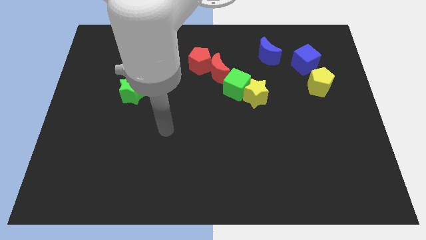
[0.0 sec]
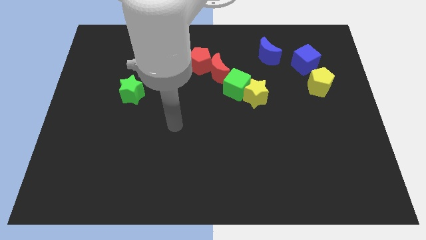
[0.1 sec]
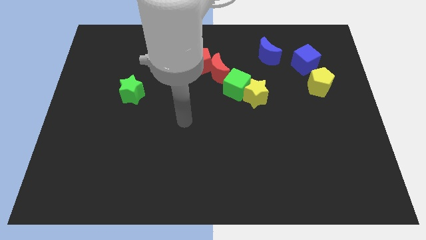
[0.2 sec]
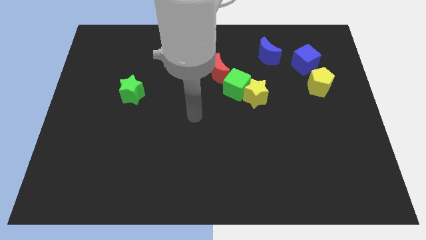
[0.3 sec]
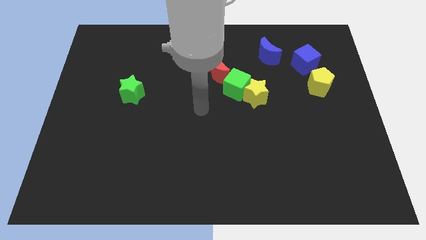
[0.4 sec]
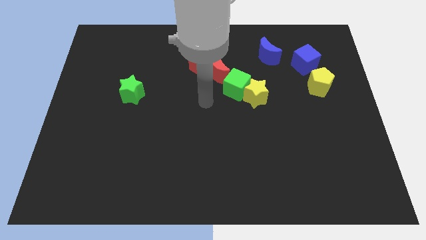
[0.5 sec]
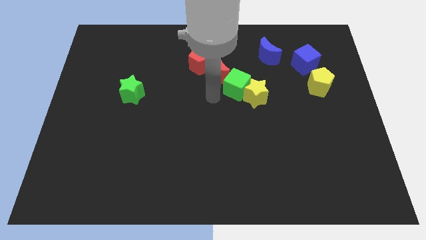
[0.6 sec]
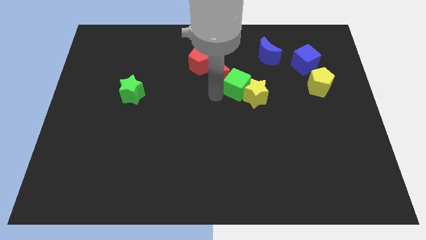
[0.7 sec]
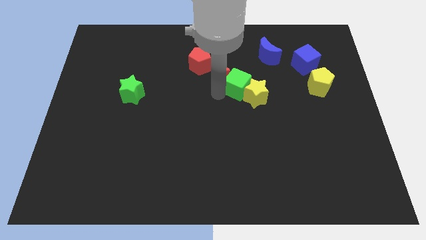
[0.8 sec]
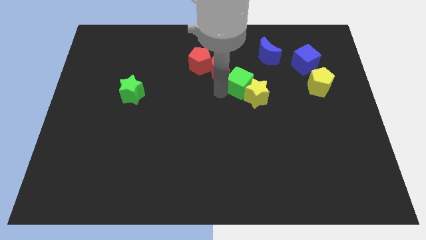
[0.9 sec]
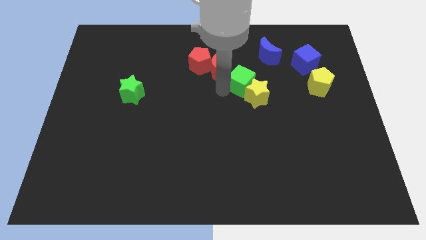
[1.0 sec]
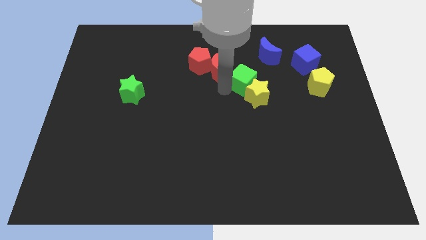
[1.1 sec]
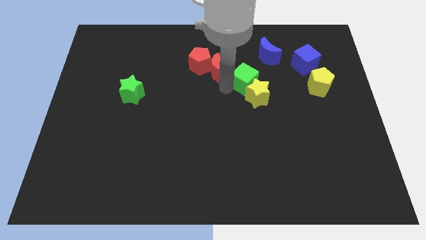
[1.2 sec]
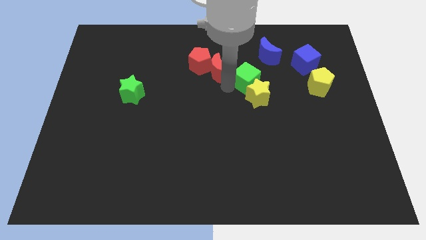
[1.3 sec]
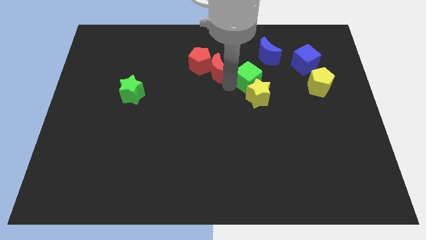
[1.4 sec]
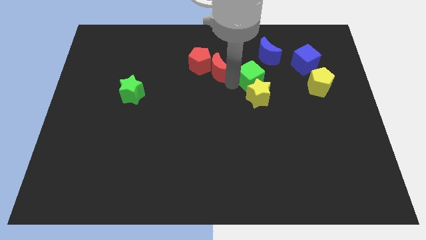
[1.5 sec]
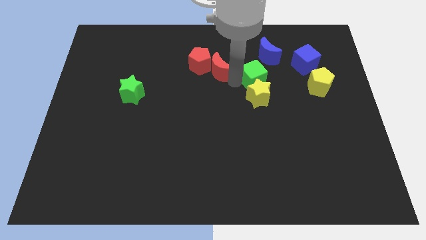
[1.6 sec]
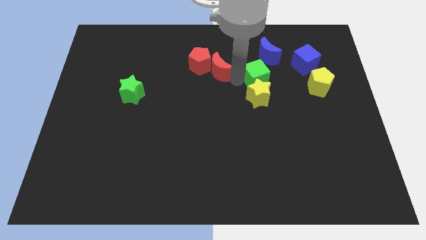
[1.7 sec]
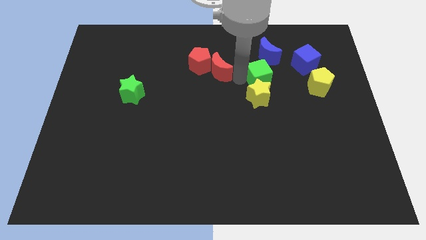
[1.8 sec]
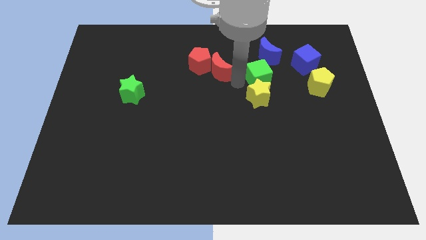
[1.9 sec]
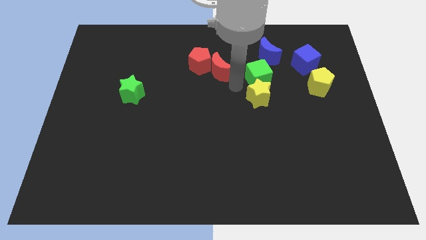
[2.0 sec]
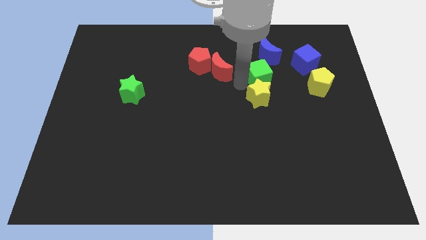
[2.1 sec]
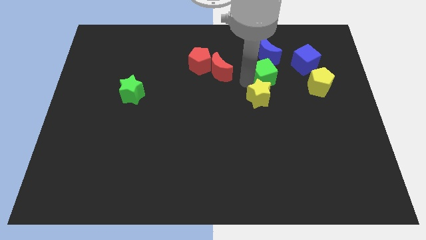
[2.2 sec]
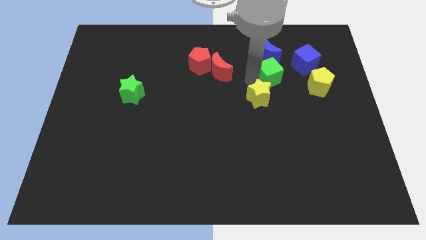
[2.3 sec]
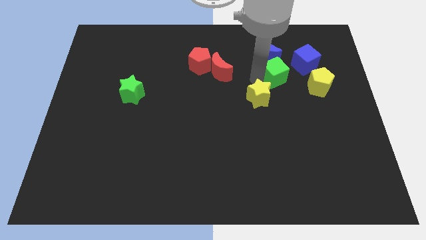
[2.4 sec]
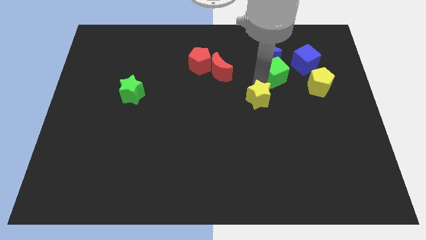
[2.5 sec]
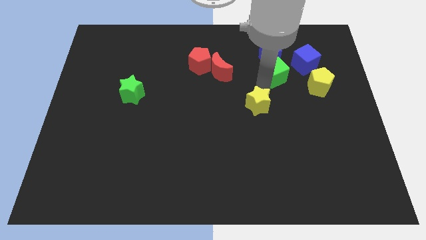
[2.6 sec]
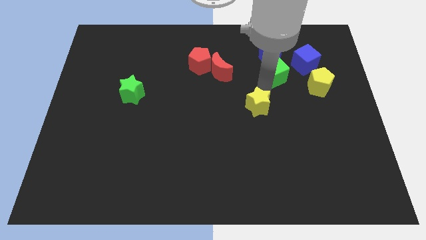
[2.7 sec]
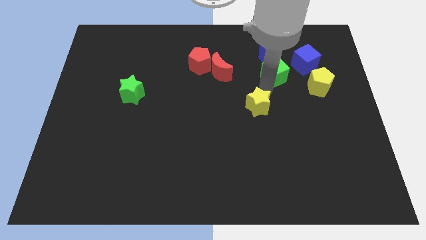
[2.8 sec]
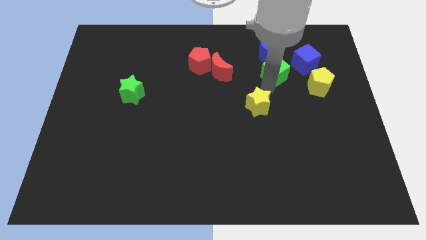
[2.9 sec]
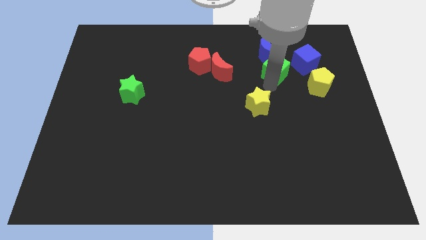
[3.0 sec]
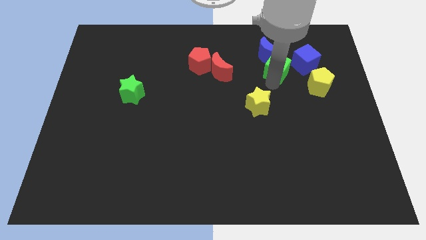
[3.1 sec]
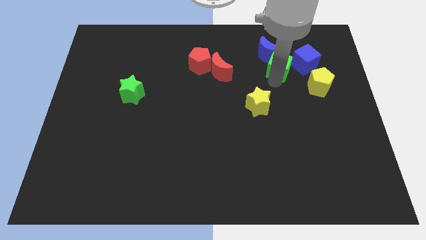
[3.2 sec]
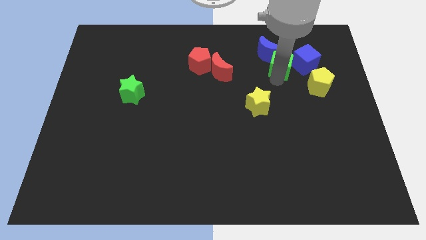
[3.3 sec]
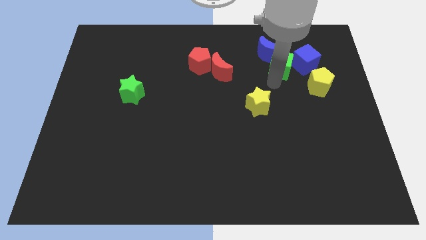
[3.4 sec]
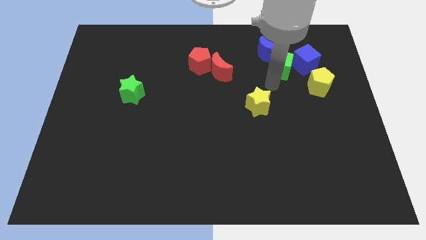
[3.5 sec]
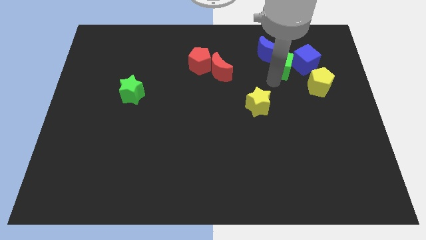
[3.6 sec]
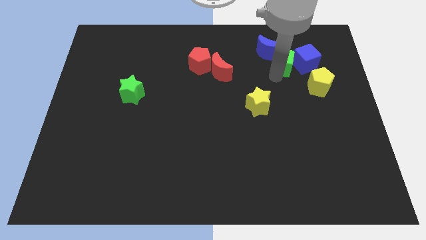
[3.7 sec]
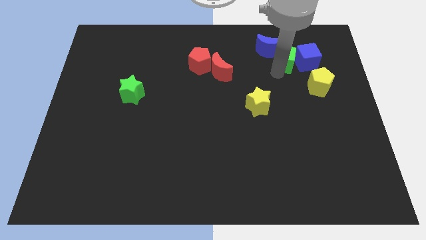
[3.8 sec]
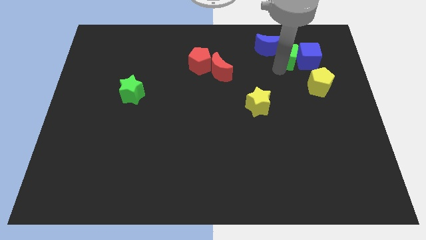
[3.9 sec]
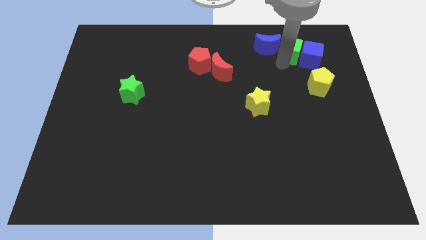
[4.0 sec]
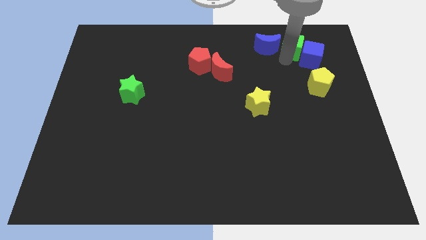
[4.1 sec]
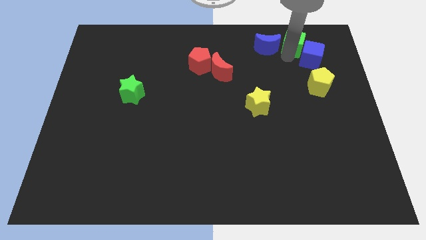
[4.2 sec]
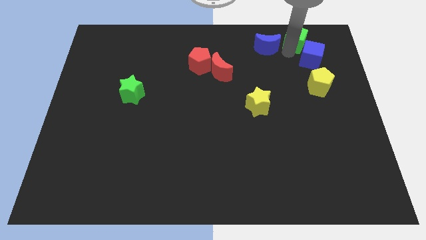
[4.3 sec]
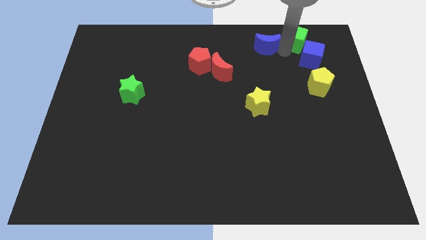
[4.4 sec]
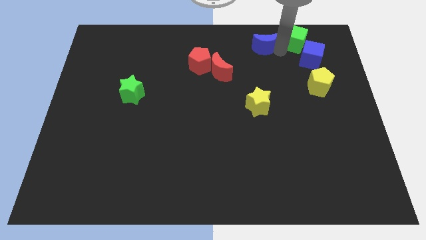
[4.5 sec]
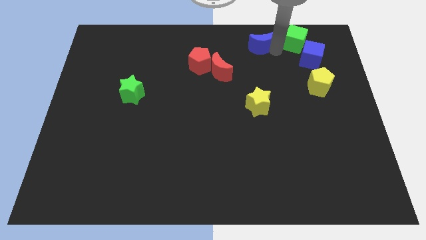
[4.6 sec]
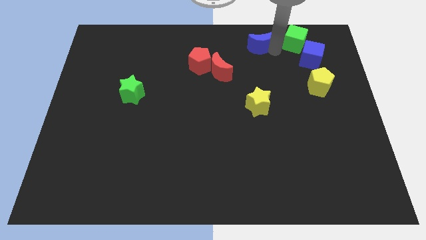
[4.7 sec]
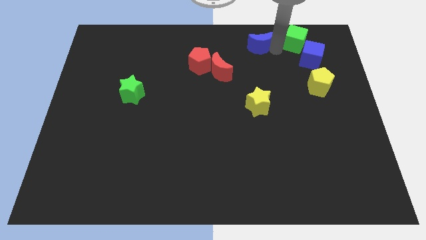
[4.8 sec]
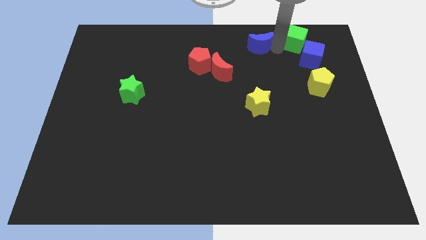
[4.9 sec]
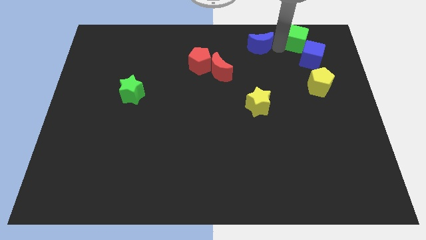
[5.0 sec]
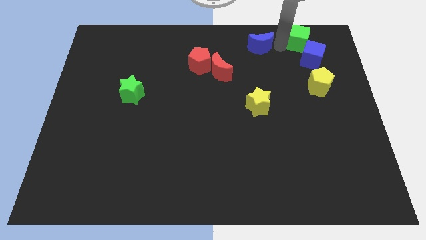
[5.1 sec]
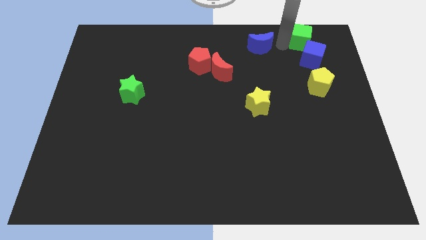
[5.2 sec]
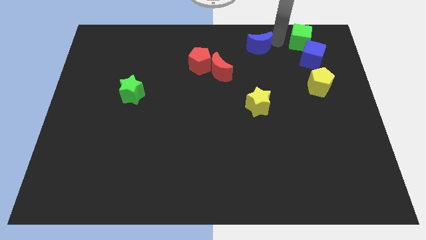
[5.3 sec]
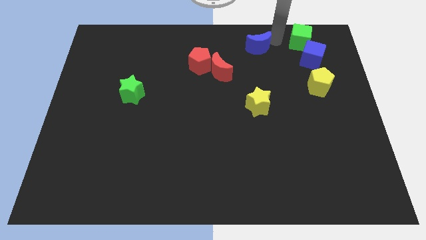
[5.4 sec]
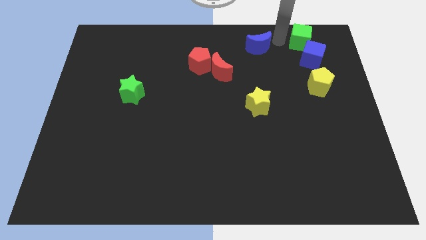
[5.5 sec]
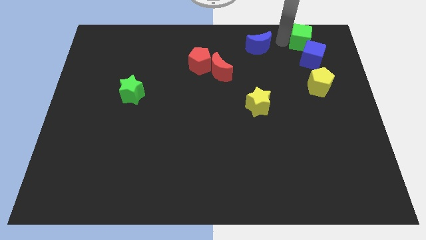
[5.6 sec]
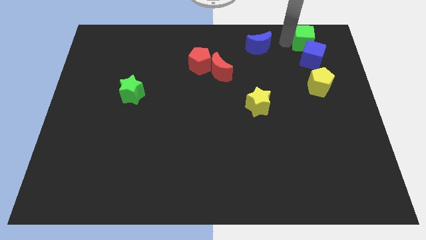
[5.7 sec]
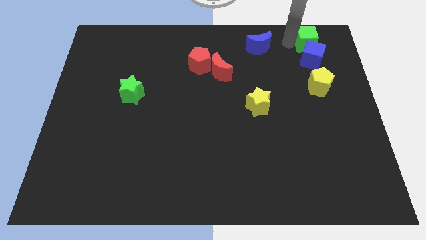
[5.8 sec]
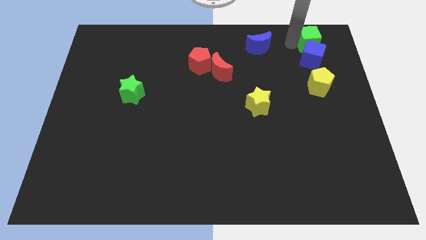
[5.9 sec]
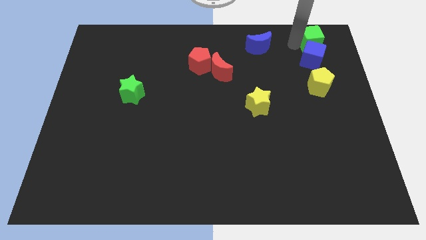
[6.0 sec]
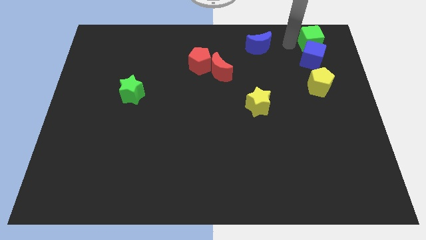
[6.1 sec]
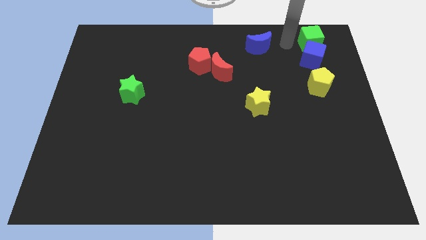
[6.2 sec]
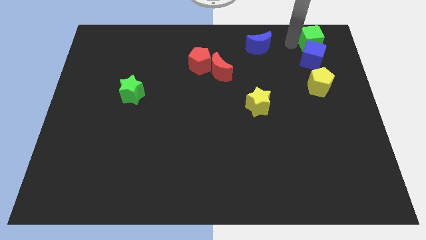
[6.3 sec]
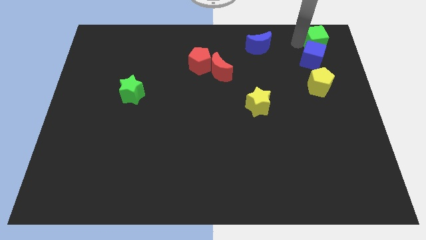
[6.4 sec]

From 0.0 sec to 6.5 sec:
move the green cube to the top right of the board

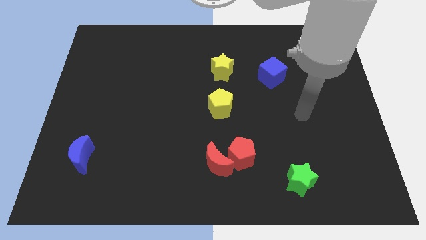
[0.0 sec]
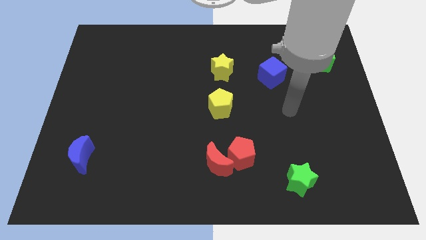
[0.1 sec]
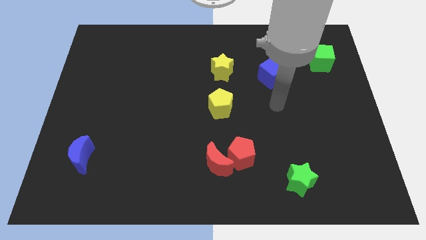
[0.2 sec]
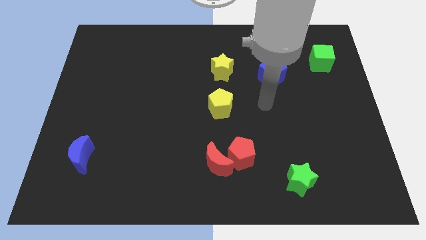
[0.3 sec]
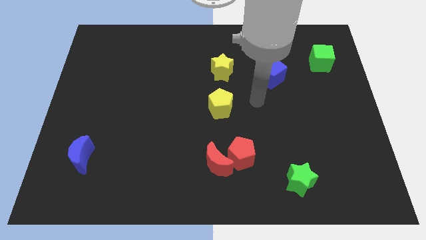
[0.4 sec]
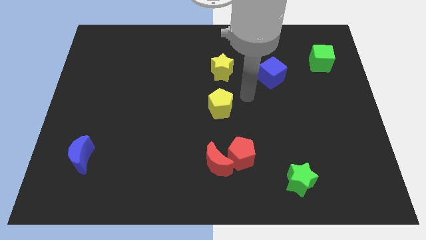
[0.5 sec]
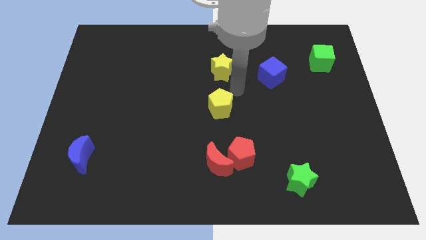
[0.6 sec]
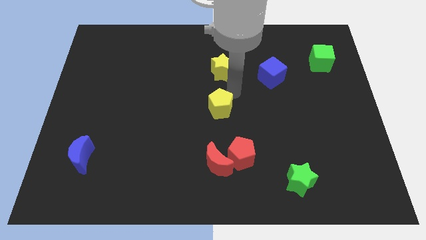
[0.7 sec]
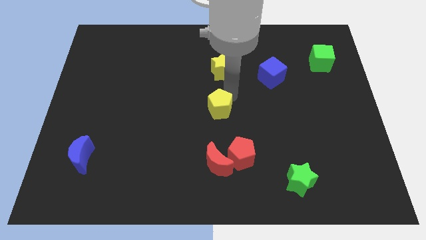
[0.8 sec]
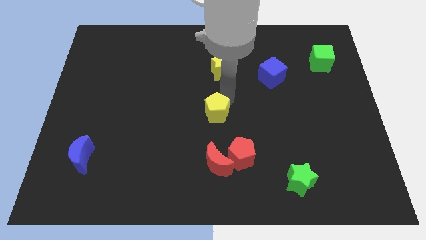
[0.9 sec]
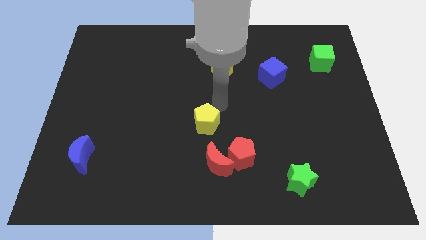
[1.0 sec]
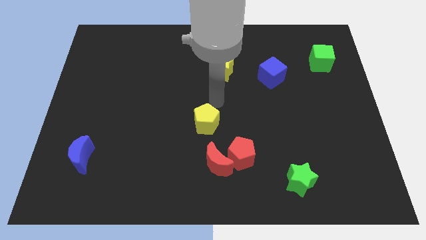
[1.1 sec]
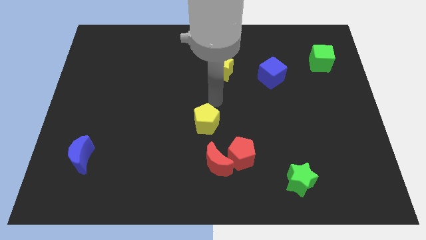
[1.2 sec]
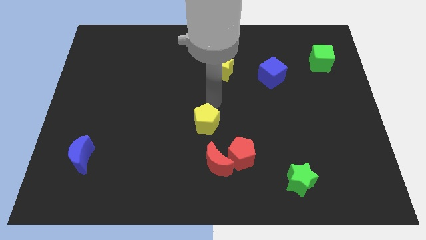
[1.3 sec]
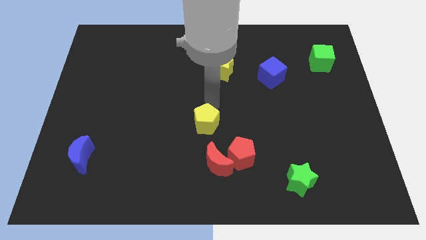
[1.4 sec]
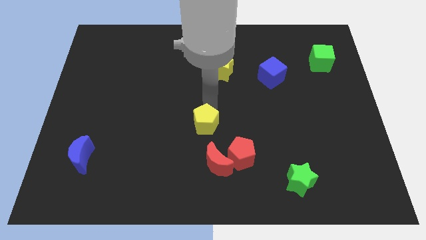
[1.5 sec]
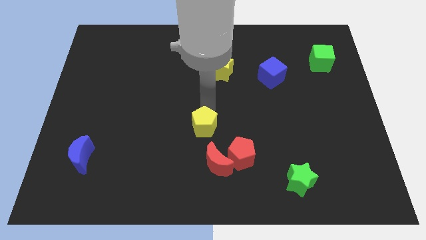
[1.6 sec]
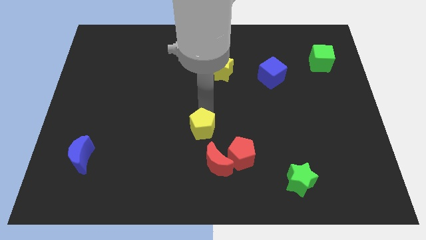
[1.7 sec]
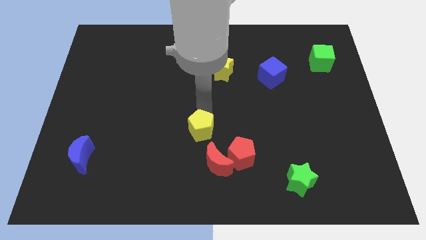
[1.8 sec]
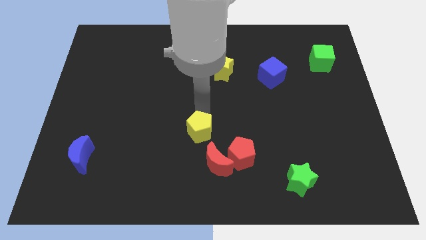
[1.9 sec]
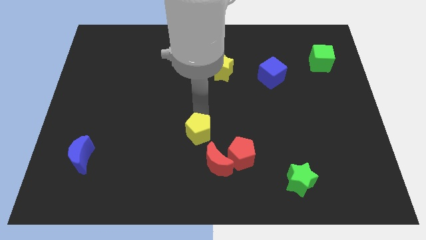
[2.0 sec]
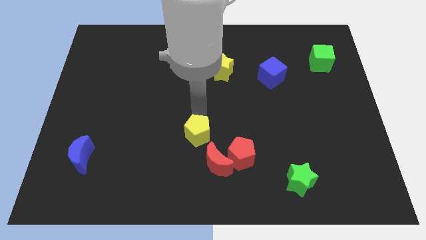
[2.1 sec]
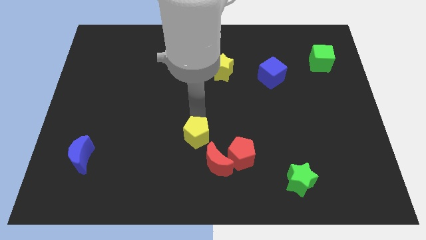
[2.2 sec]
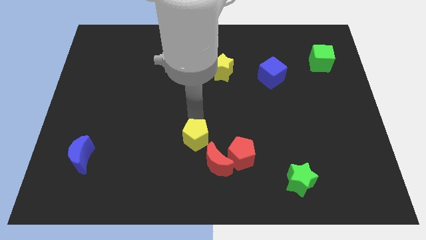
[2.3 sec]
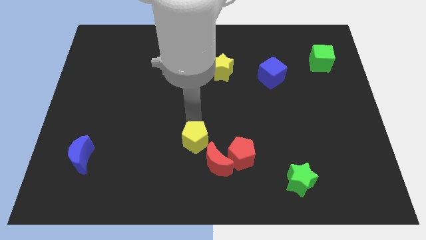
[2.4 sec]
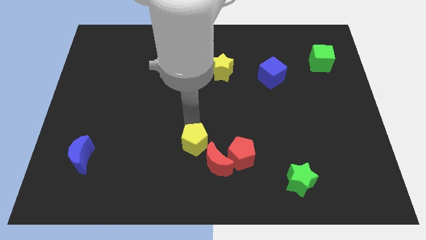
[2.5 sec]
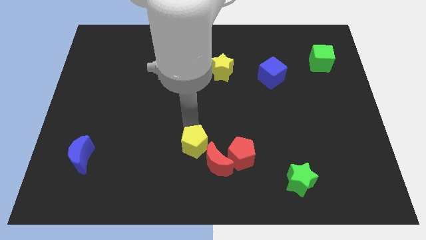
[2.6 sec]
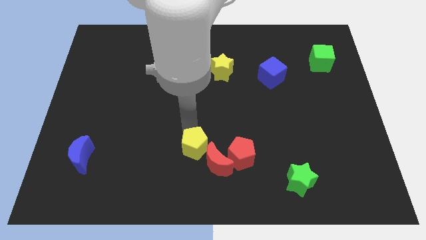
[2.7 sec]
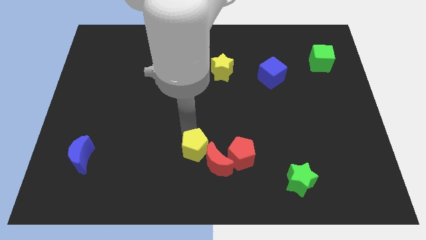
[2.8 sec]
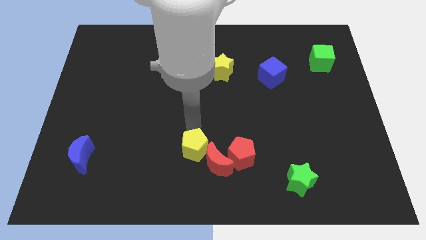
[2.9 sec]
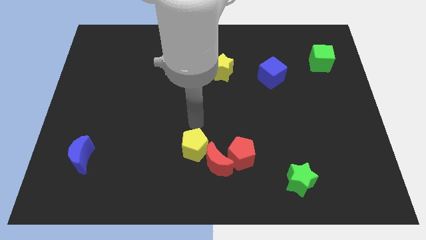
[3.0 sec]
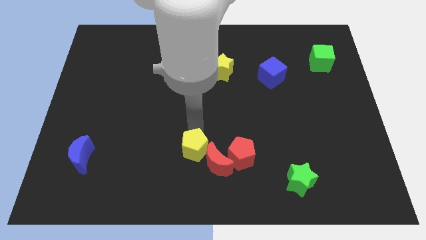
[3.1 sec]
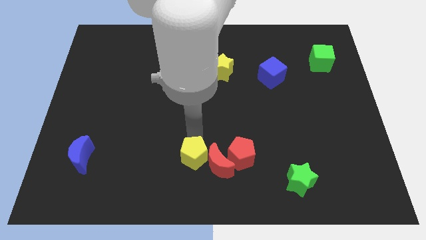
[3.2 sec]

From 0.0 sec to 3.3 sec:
slide the yellow pentagon to the bottom
